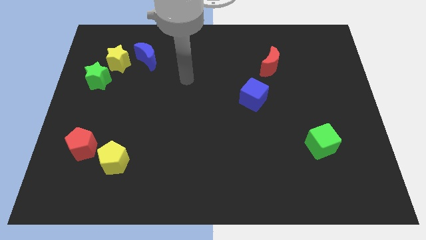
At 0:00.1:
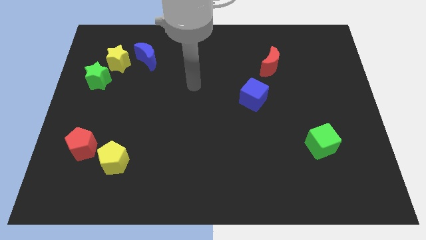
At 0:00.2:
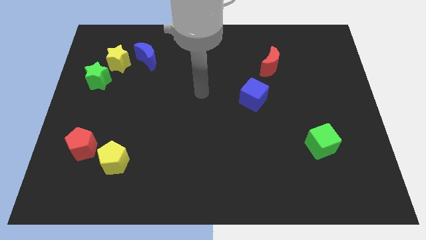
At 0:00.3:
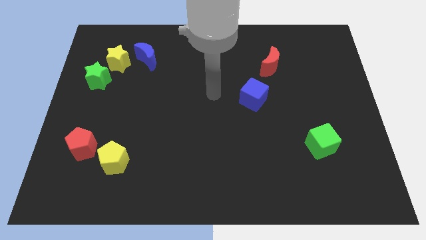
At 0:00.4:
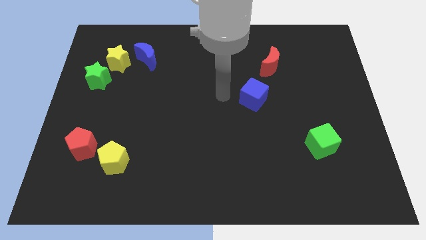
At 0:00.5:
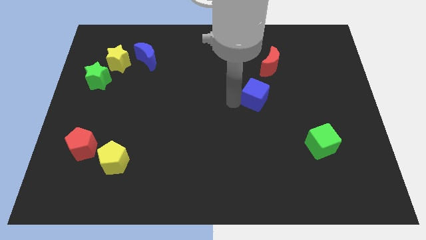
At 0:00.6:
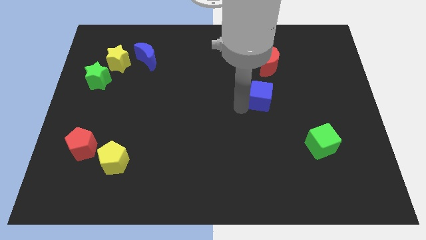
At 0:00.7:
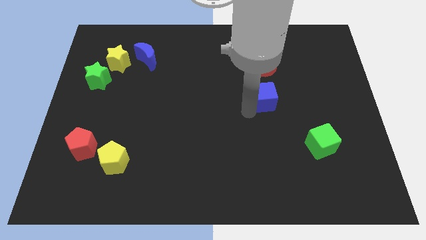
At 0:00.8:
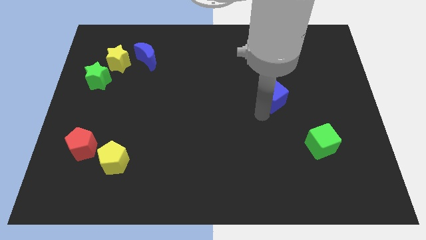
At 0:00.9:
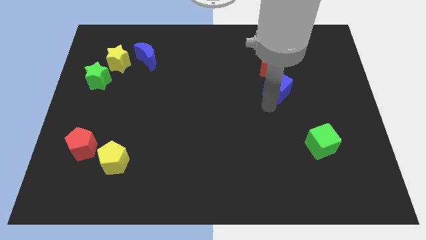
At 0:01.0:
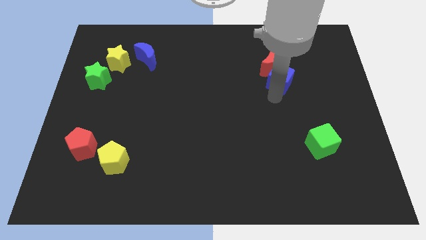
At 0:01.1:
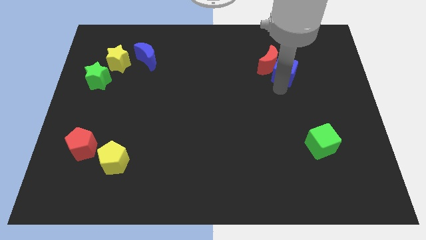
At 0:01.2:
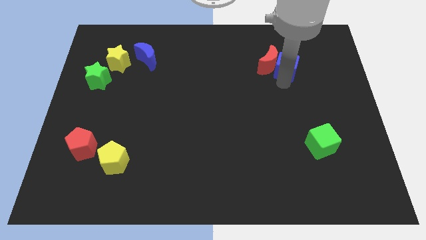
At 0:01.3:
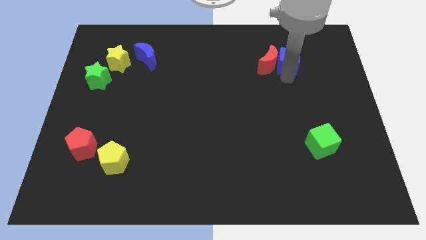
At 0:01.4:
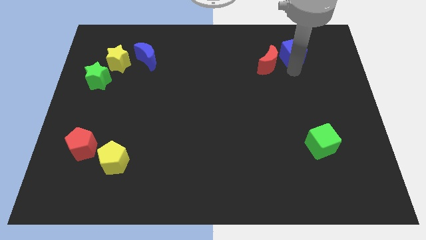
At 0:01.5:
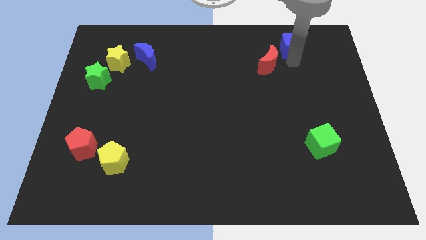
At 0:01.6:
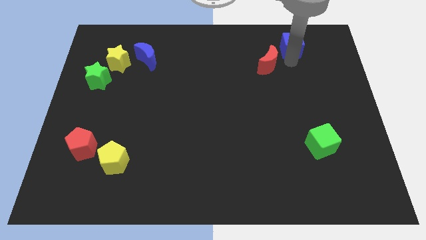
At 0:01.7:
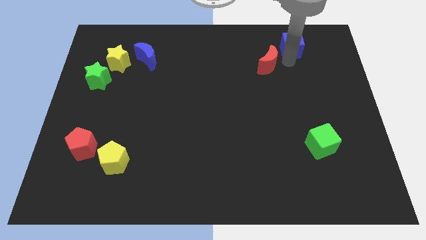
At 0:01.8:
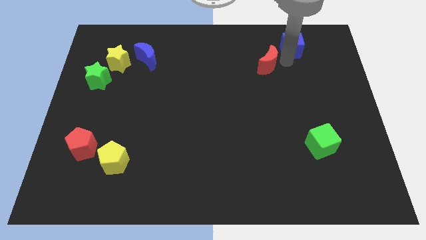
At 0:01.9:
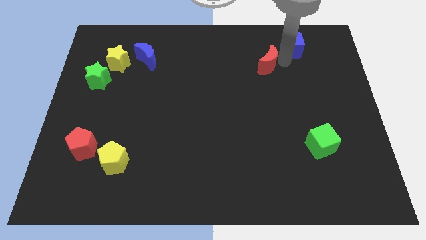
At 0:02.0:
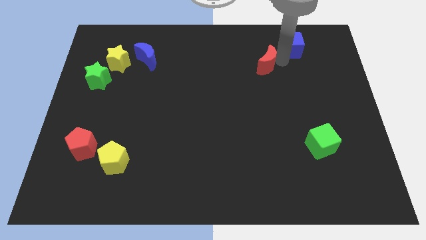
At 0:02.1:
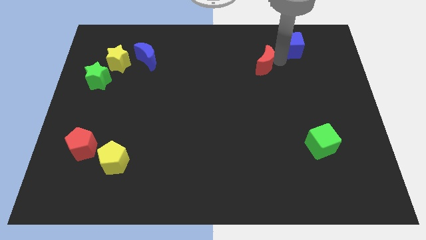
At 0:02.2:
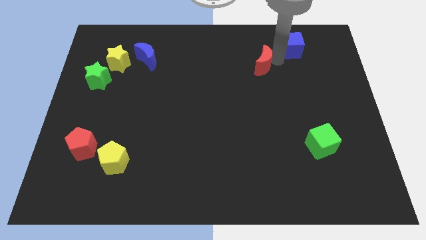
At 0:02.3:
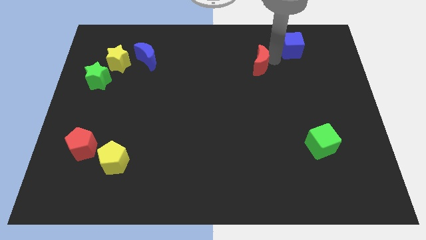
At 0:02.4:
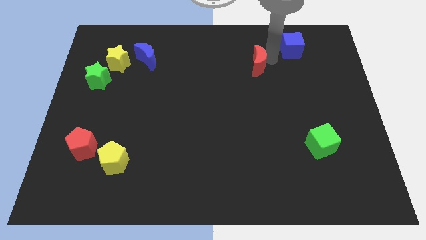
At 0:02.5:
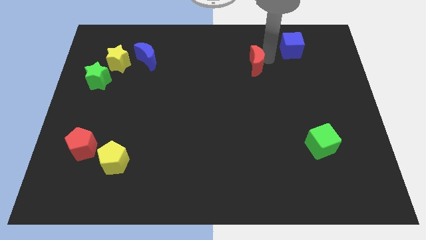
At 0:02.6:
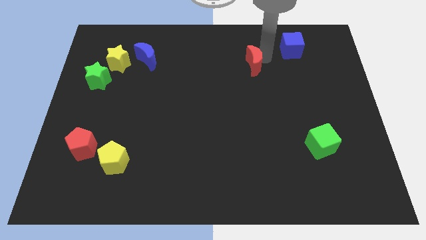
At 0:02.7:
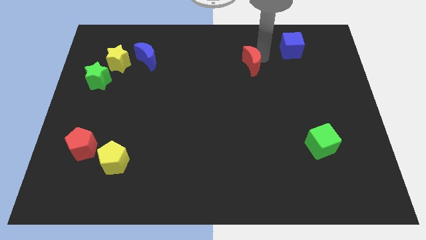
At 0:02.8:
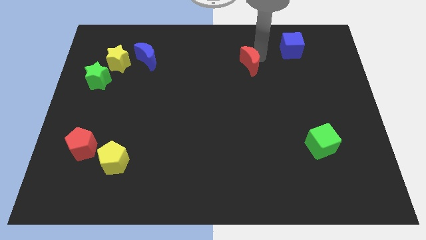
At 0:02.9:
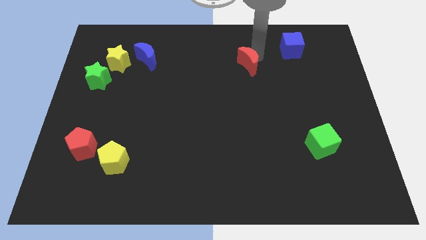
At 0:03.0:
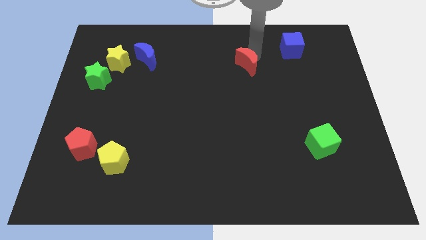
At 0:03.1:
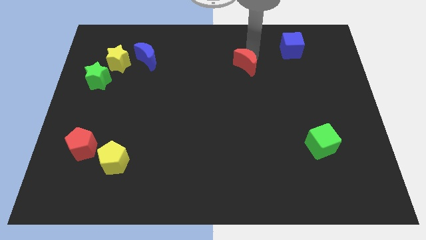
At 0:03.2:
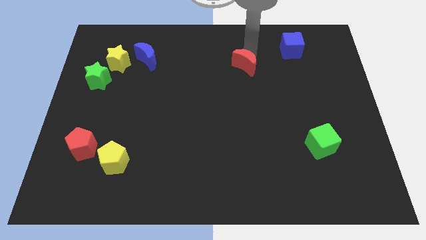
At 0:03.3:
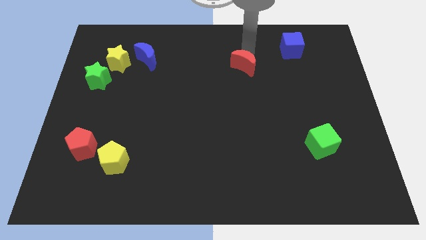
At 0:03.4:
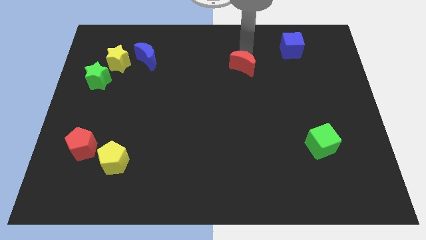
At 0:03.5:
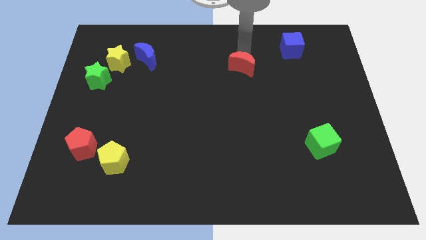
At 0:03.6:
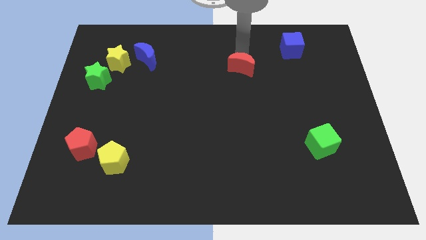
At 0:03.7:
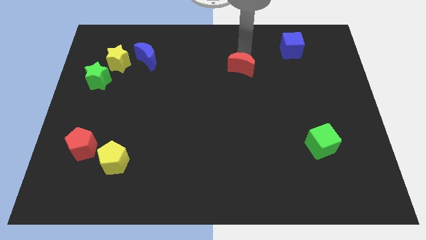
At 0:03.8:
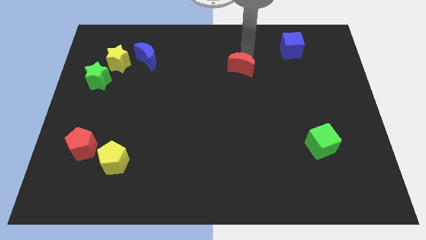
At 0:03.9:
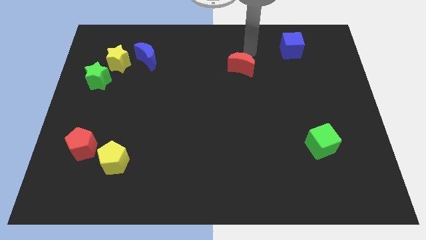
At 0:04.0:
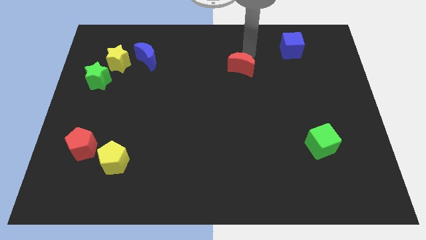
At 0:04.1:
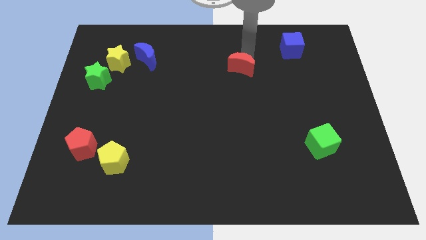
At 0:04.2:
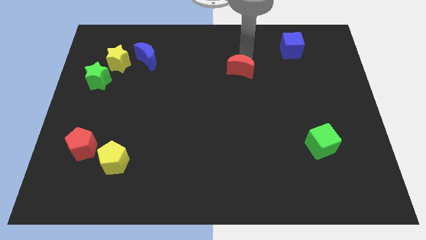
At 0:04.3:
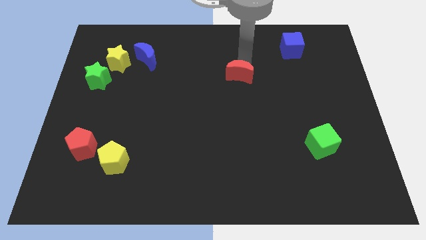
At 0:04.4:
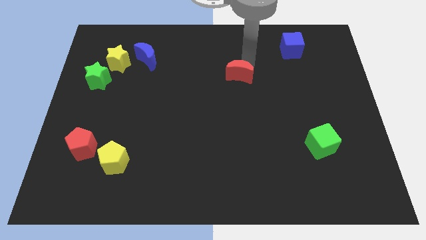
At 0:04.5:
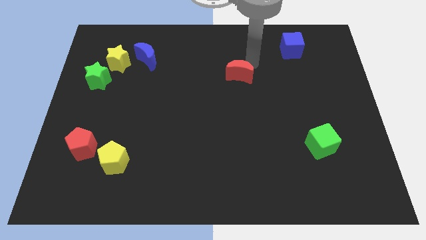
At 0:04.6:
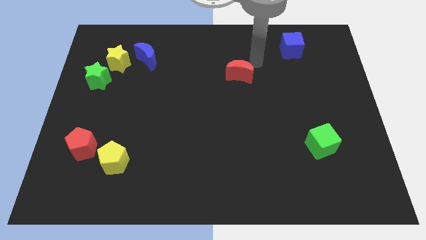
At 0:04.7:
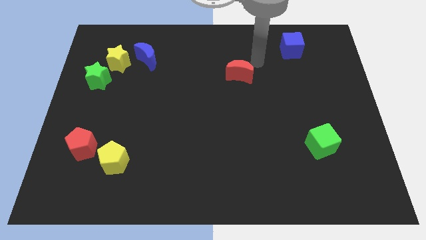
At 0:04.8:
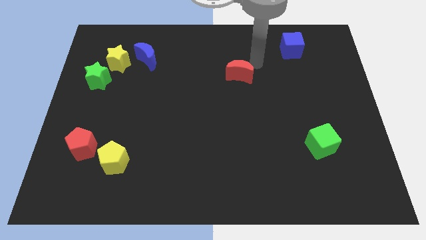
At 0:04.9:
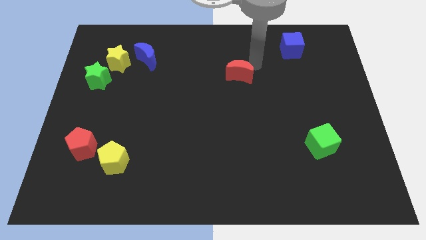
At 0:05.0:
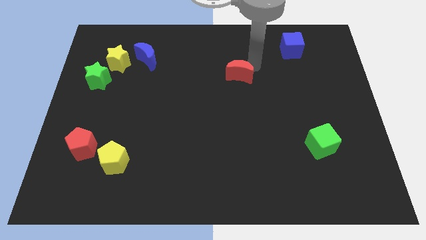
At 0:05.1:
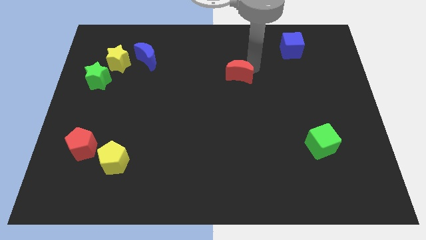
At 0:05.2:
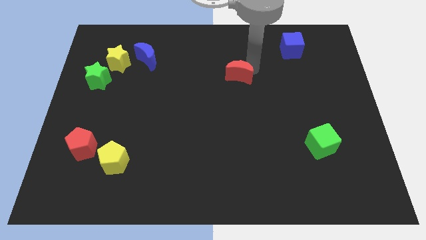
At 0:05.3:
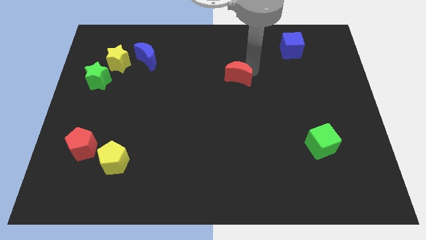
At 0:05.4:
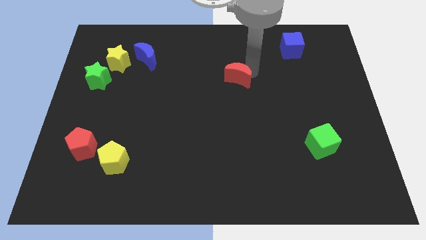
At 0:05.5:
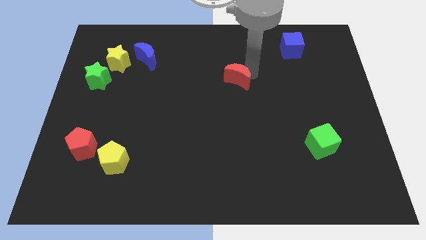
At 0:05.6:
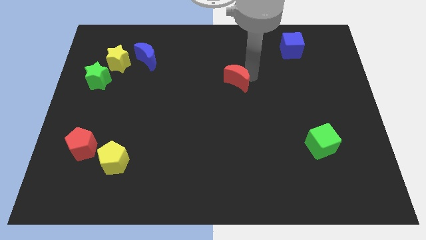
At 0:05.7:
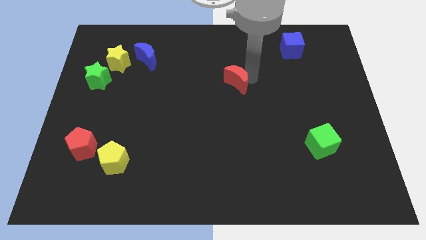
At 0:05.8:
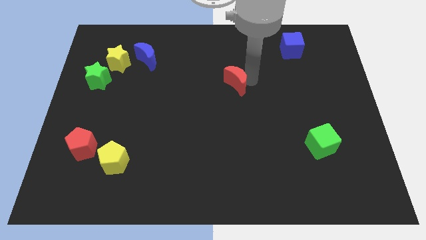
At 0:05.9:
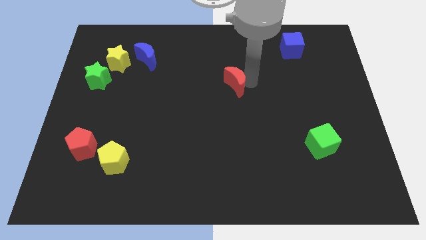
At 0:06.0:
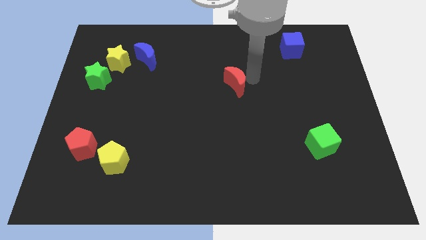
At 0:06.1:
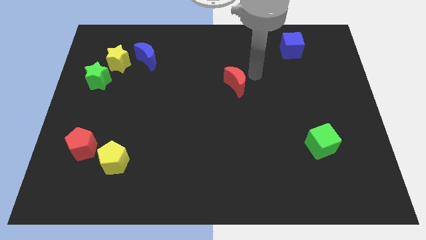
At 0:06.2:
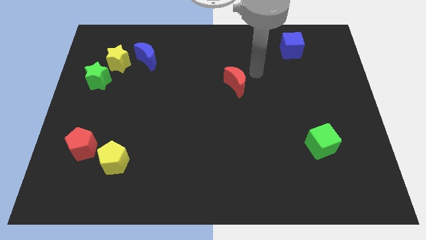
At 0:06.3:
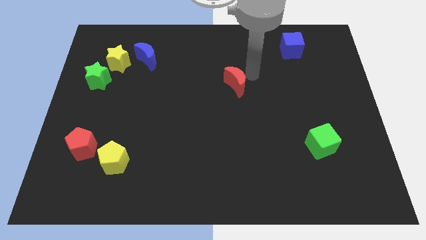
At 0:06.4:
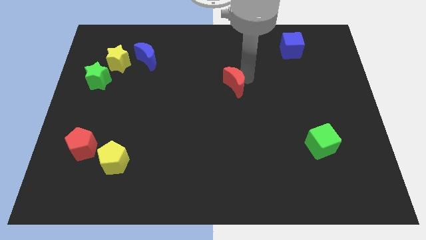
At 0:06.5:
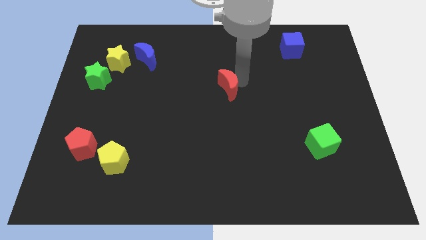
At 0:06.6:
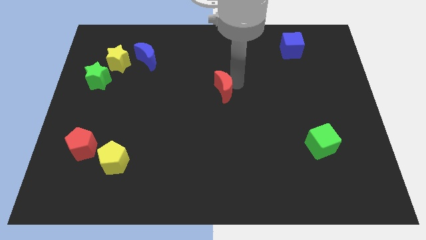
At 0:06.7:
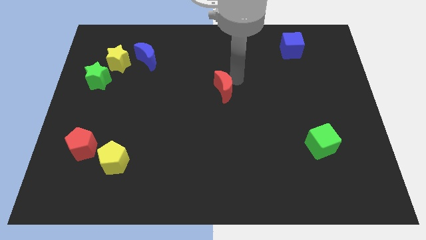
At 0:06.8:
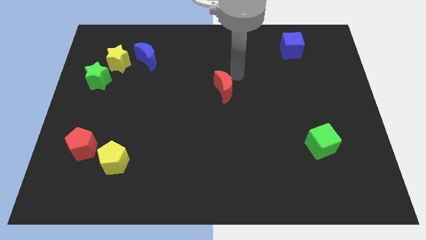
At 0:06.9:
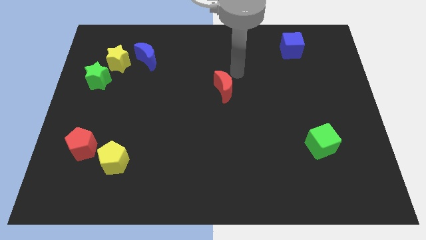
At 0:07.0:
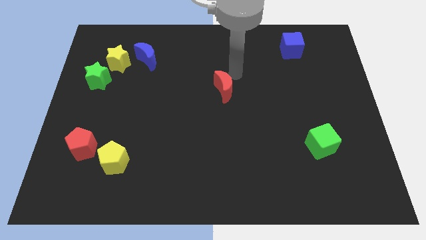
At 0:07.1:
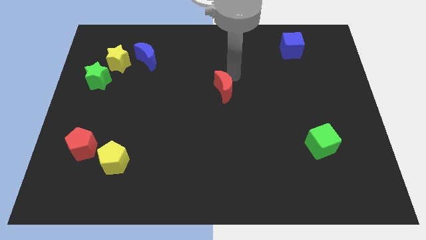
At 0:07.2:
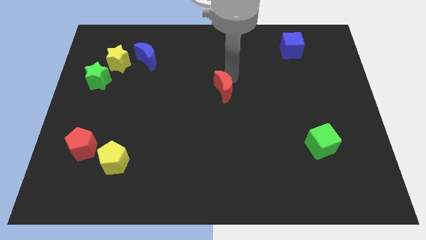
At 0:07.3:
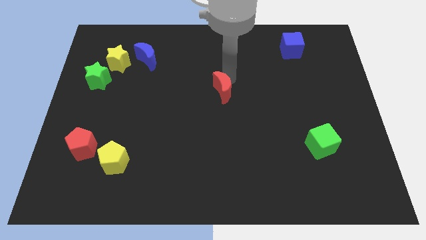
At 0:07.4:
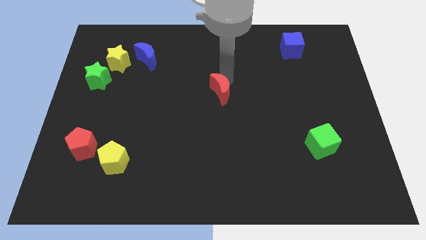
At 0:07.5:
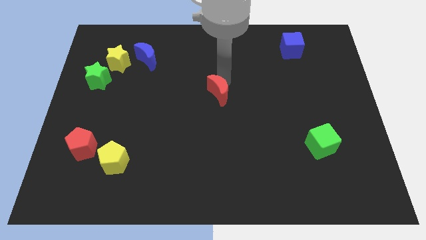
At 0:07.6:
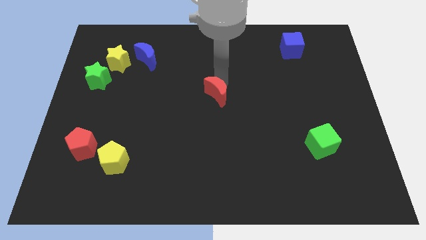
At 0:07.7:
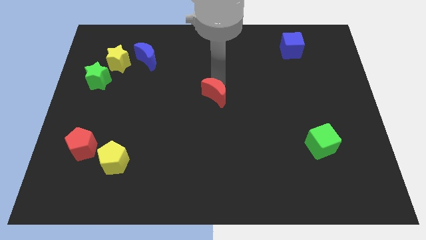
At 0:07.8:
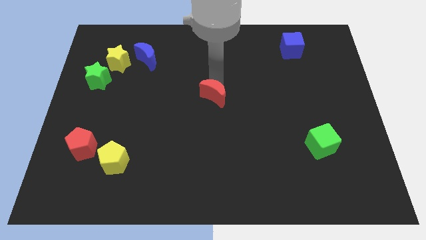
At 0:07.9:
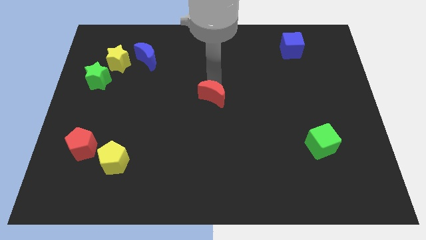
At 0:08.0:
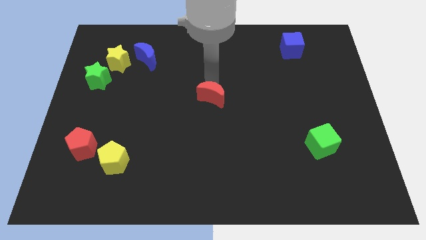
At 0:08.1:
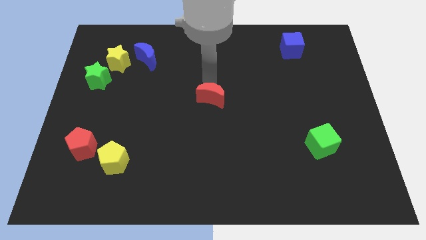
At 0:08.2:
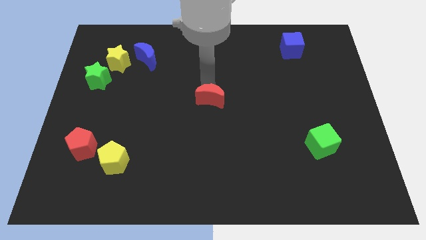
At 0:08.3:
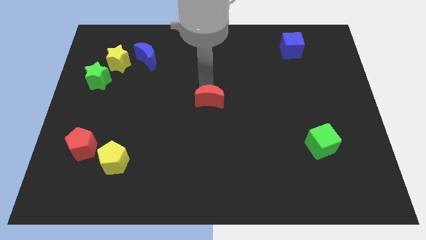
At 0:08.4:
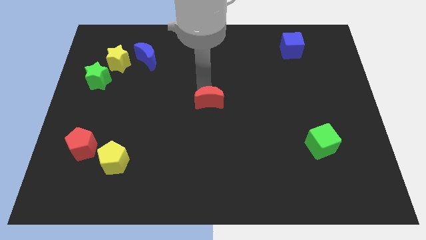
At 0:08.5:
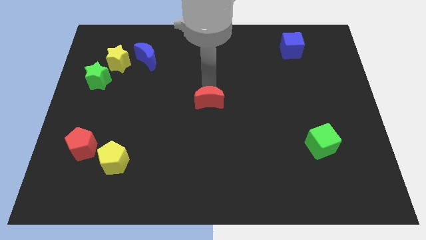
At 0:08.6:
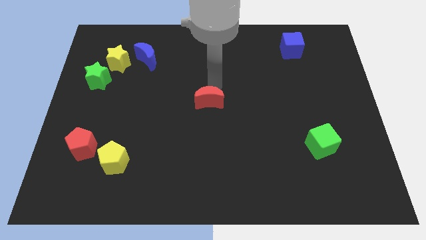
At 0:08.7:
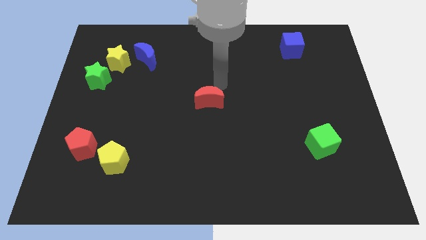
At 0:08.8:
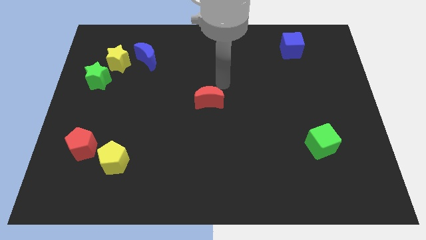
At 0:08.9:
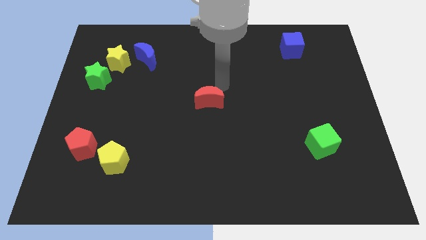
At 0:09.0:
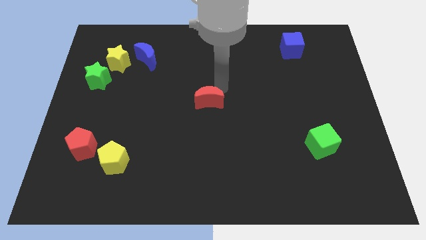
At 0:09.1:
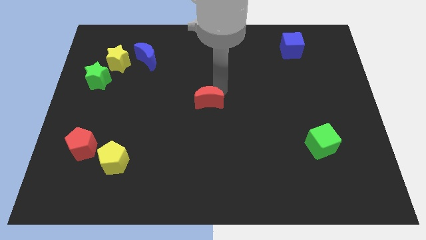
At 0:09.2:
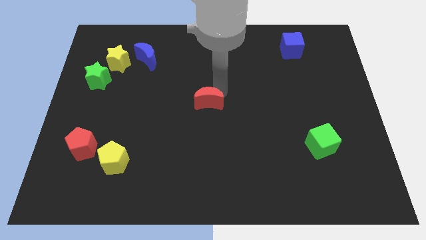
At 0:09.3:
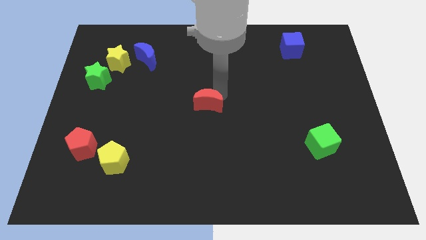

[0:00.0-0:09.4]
slide the red moon diagonally down and to the left
